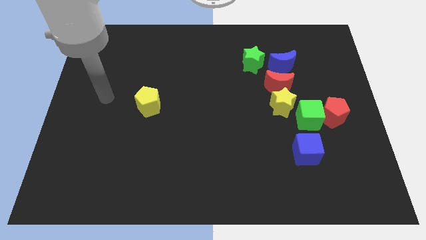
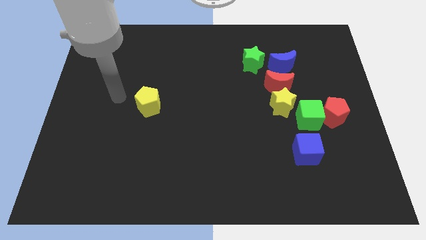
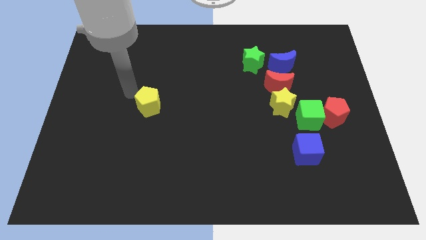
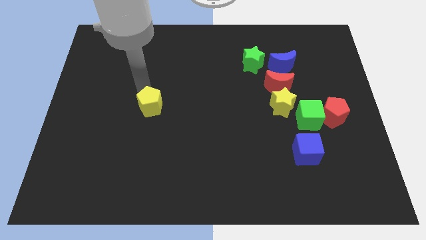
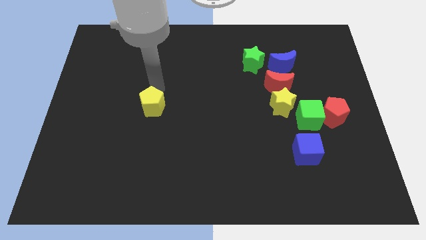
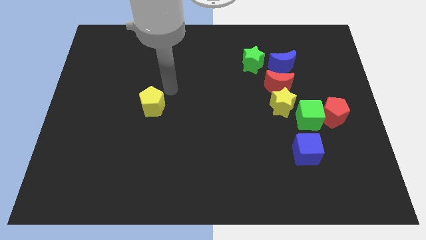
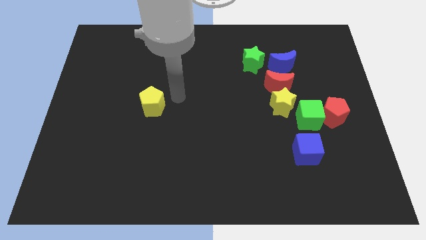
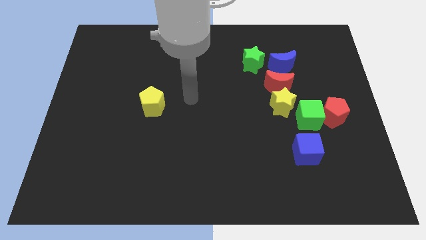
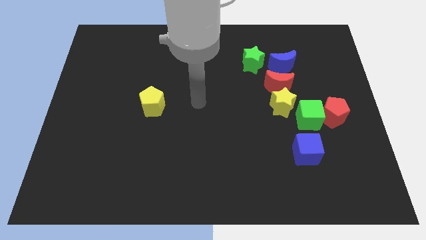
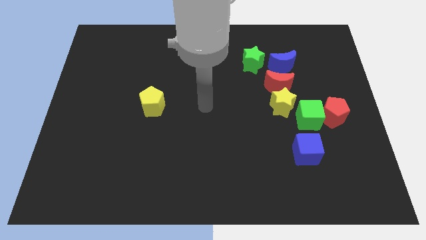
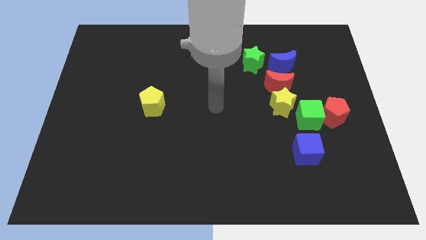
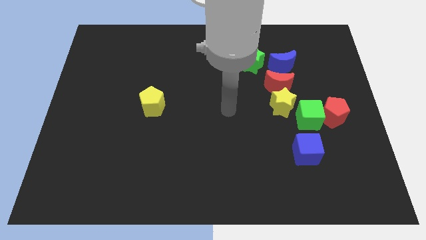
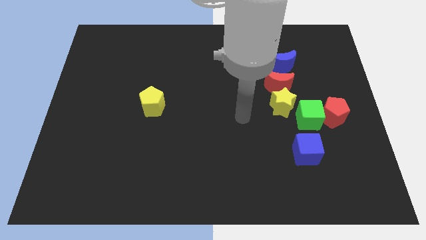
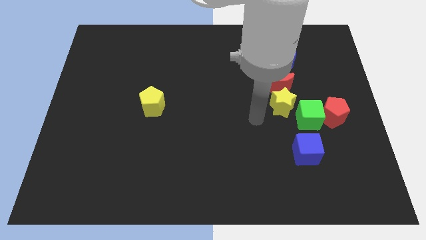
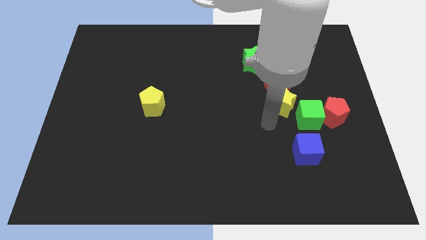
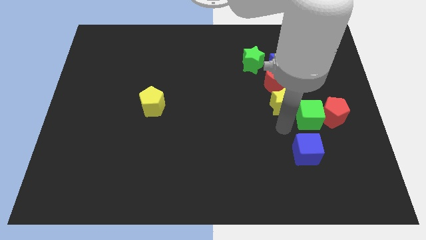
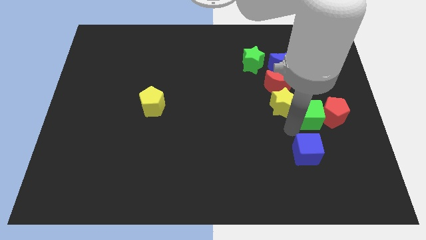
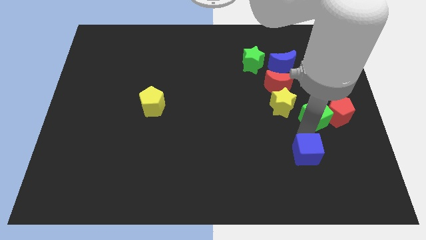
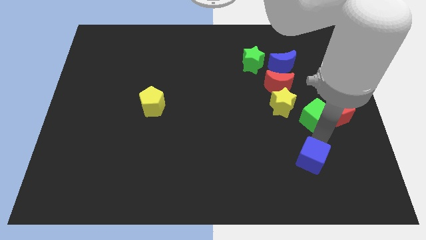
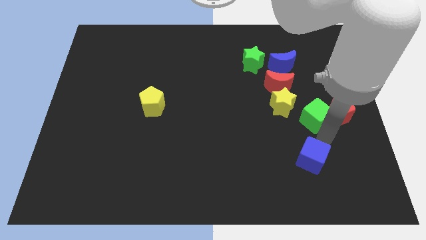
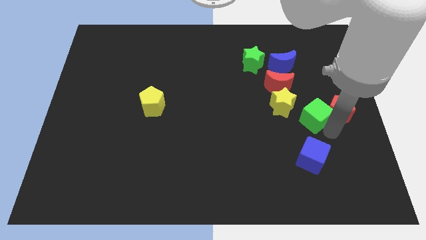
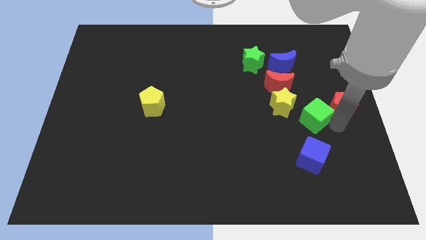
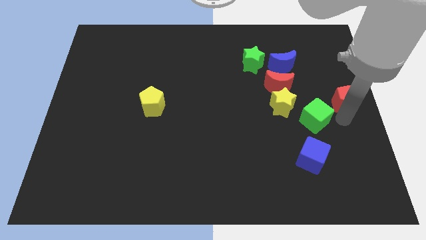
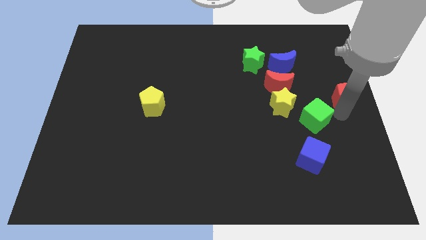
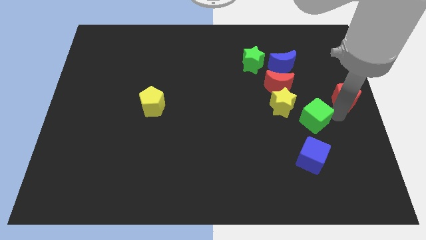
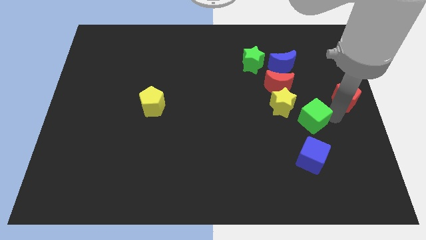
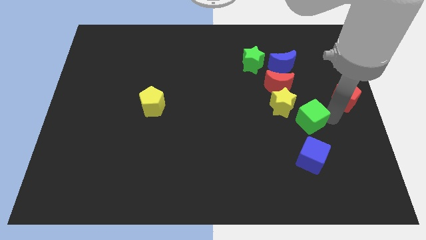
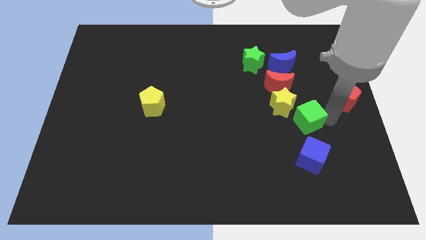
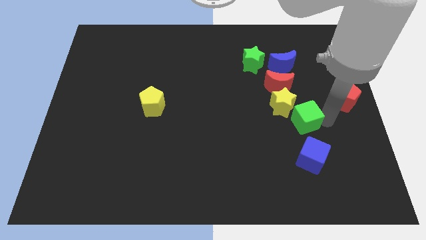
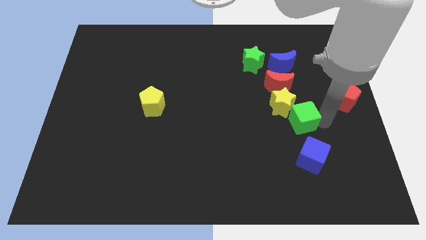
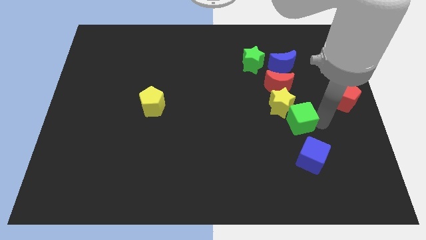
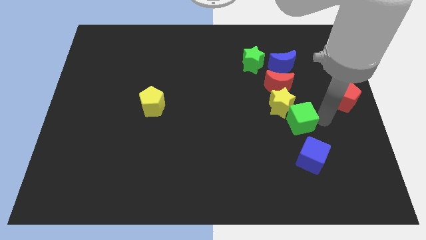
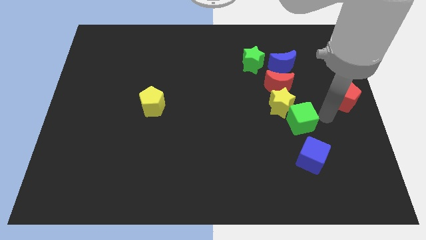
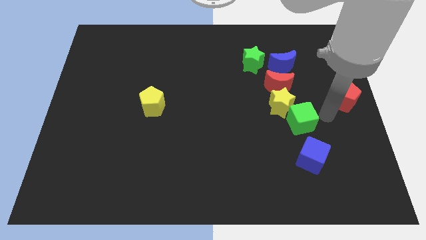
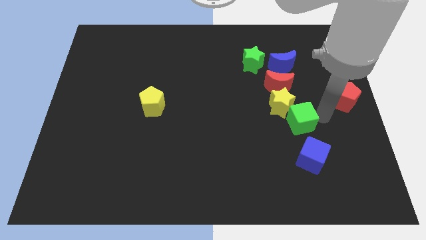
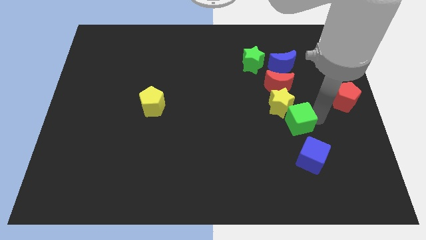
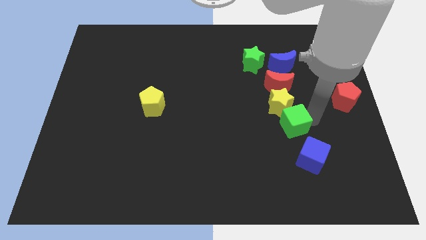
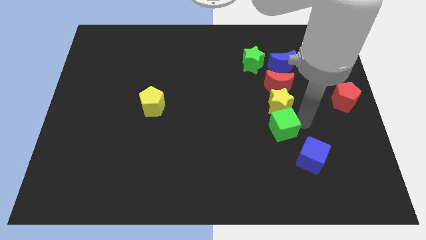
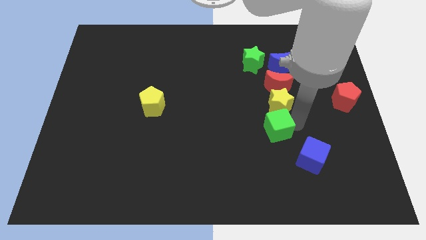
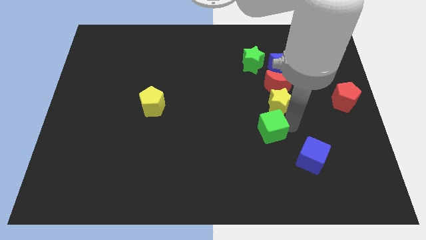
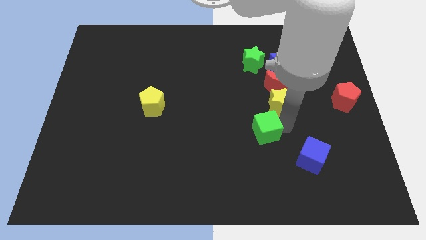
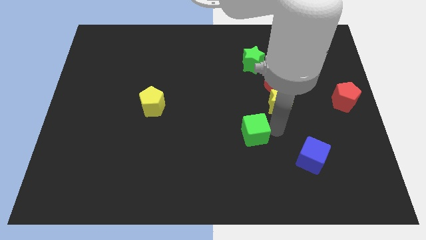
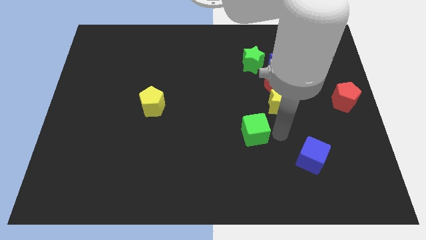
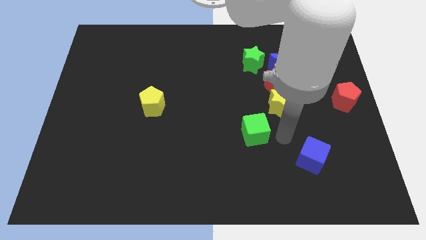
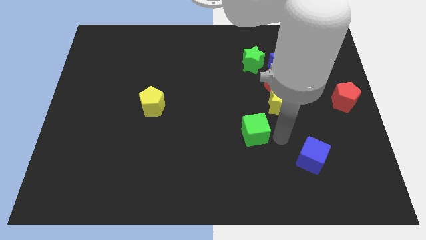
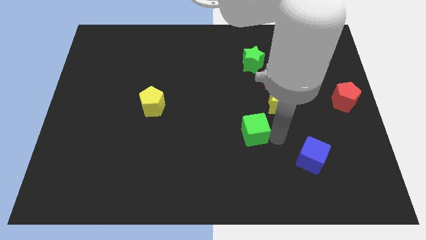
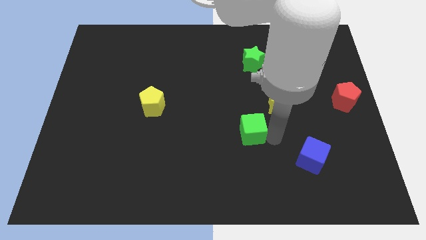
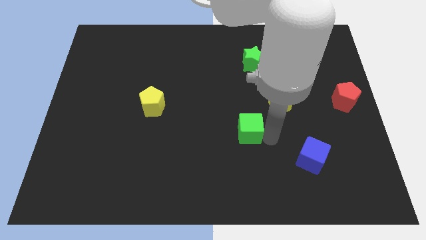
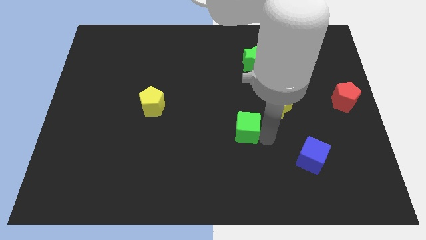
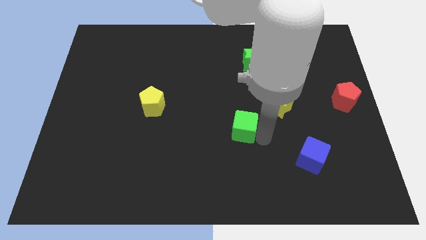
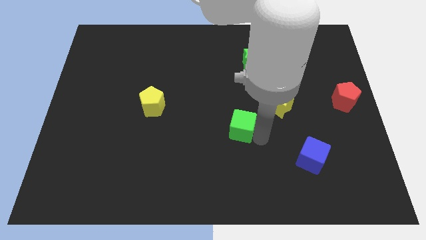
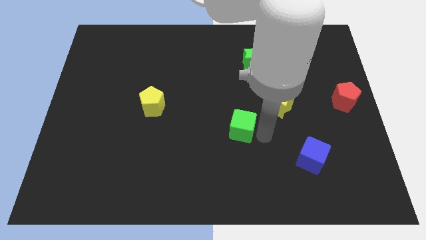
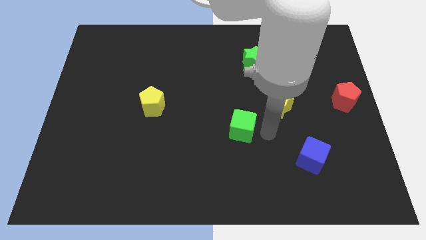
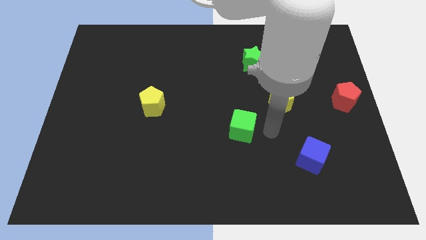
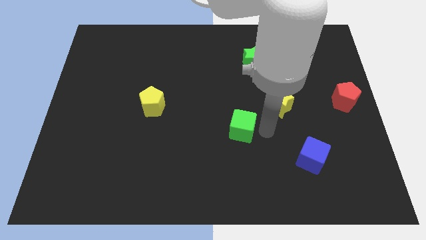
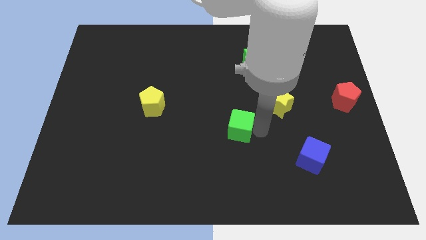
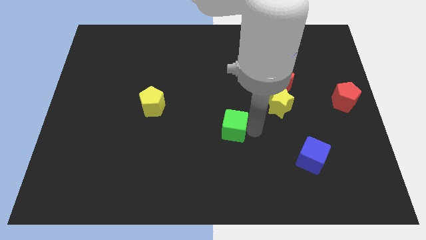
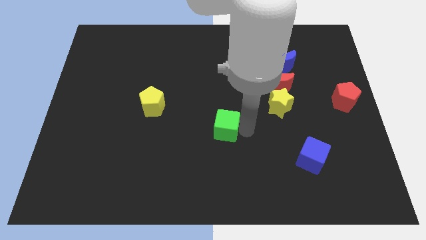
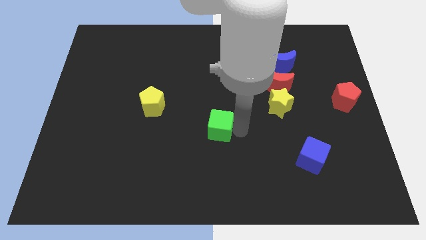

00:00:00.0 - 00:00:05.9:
move the green cube left

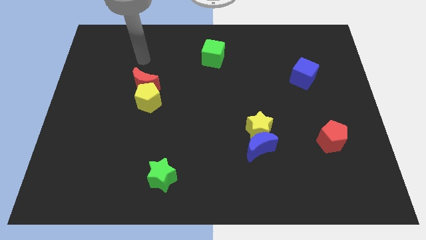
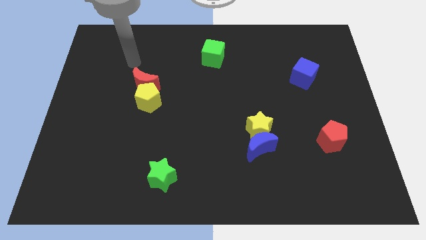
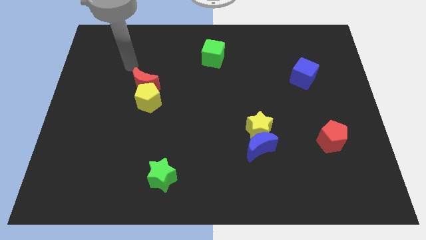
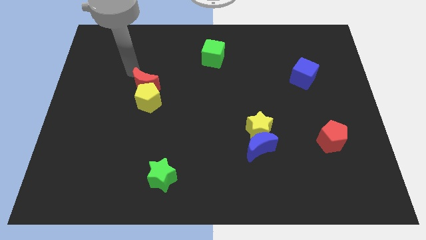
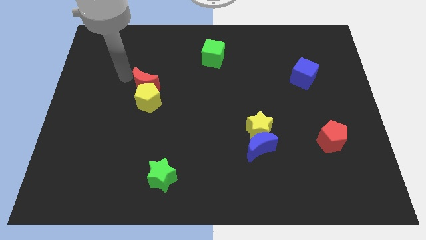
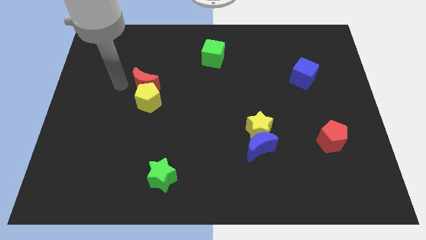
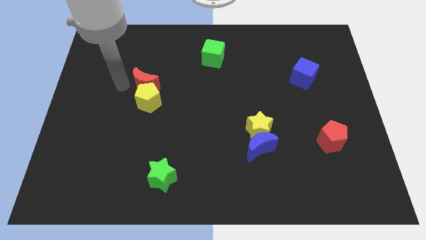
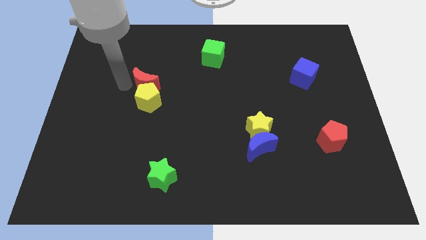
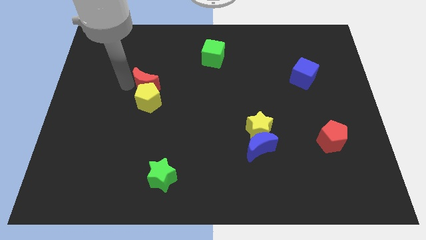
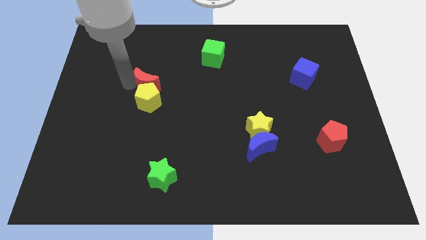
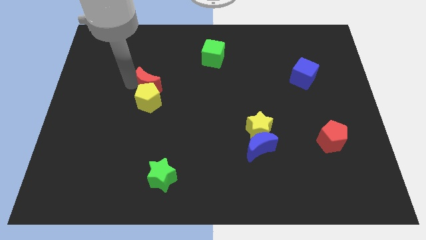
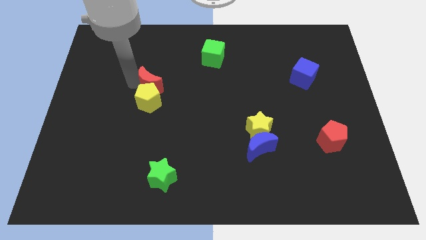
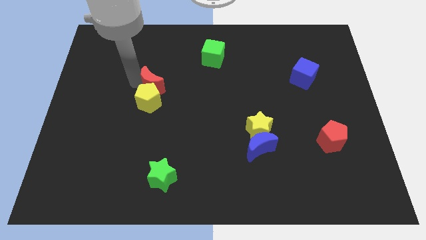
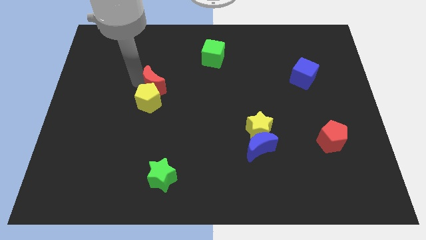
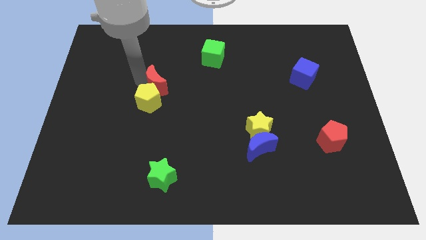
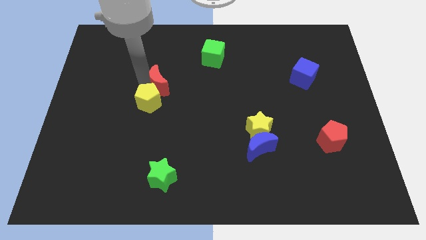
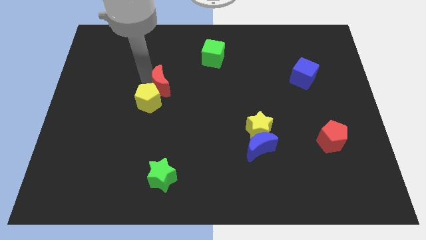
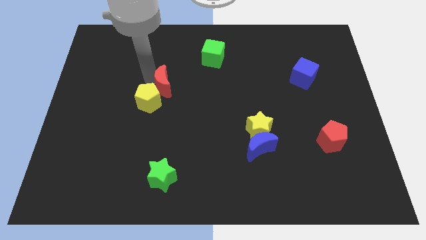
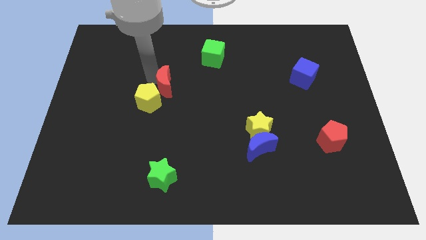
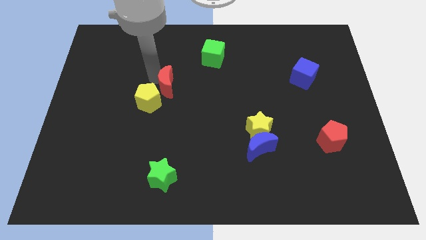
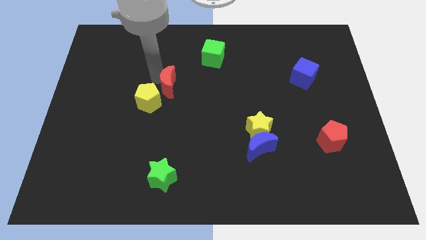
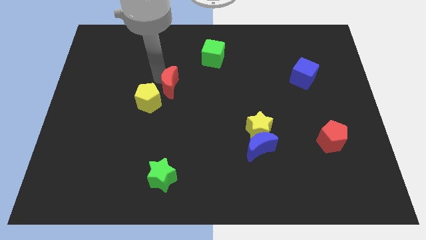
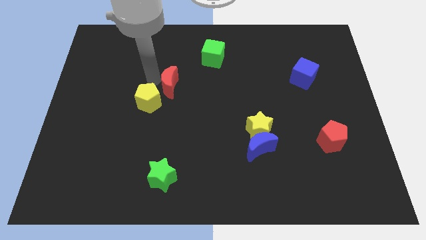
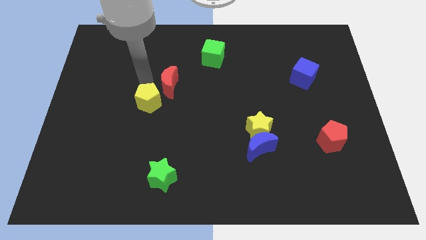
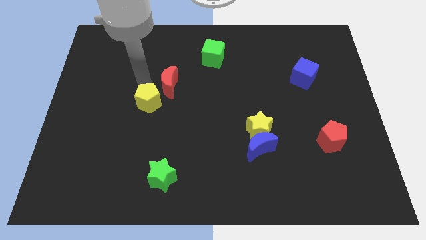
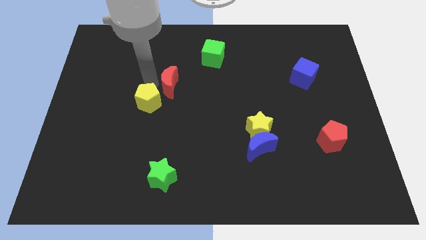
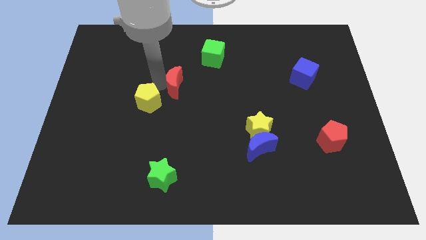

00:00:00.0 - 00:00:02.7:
slide the red moon a little to the right
